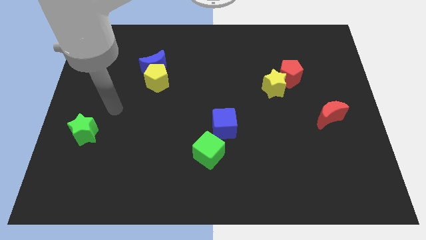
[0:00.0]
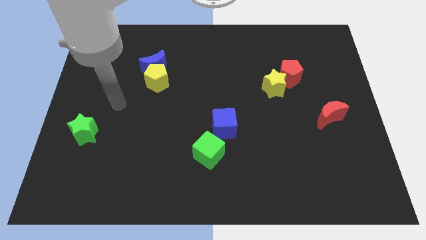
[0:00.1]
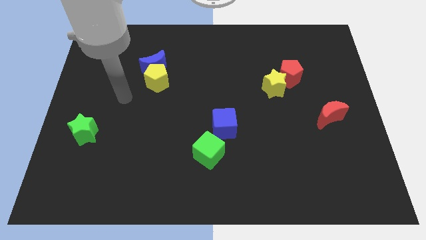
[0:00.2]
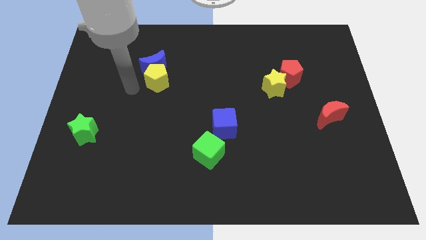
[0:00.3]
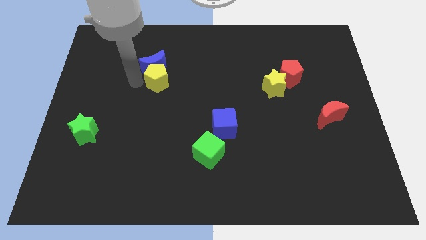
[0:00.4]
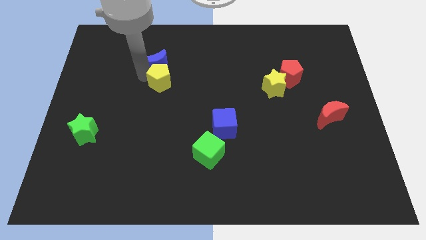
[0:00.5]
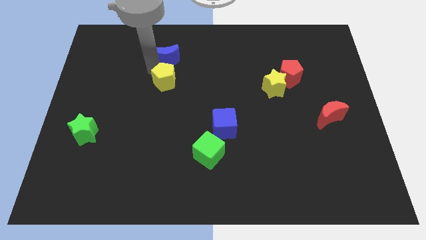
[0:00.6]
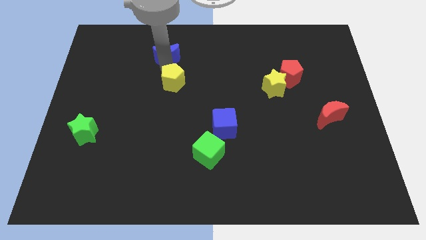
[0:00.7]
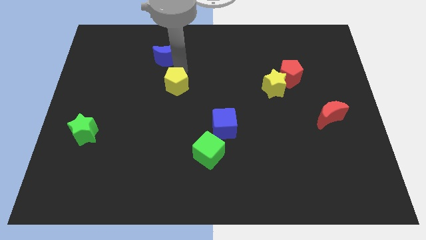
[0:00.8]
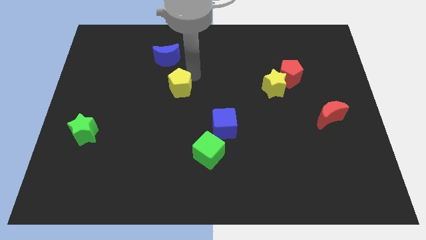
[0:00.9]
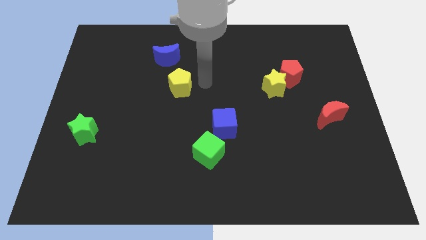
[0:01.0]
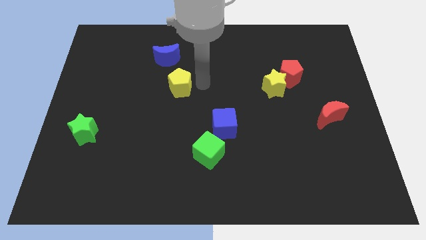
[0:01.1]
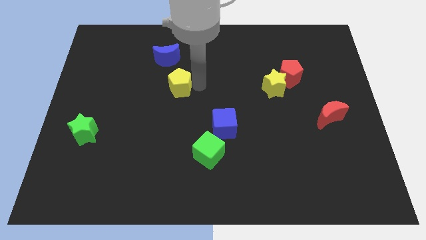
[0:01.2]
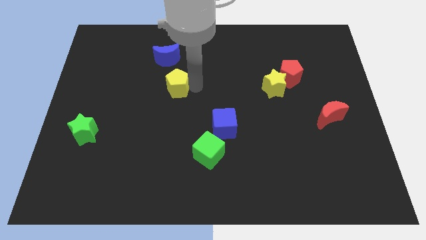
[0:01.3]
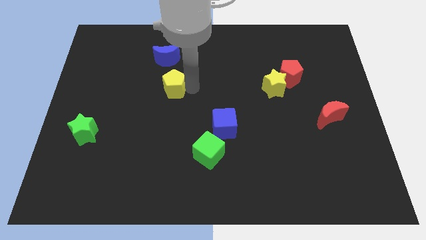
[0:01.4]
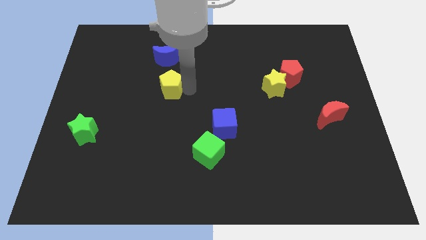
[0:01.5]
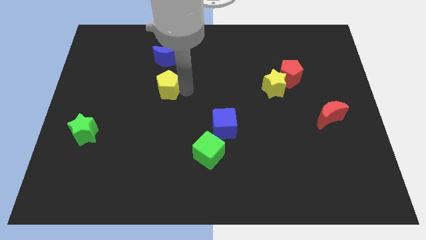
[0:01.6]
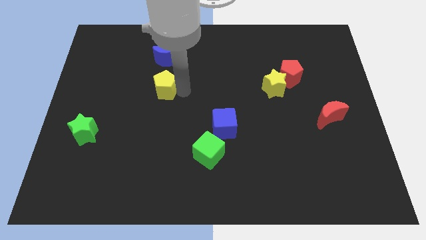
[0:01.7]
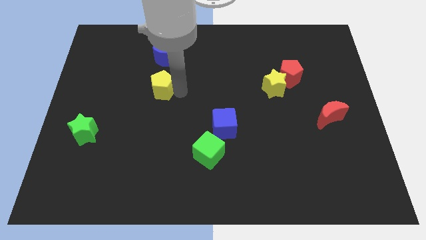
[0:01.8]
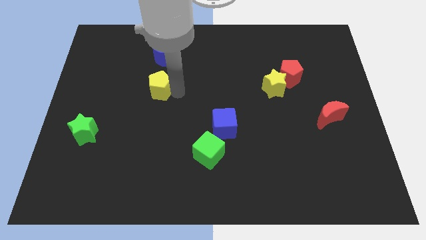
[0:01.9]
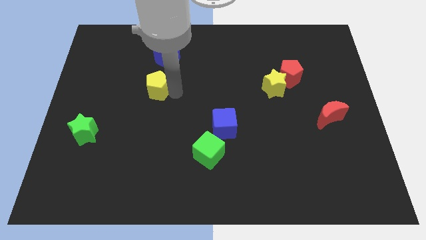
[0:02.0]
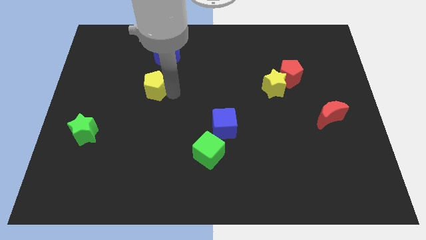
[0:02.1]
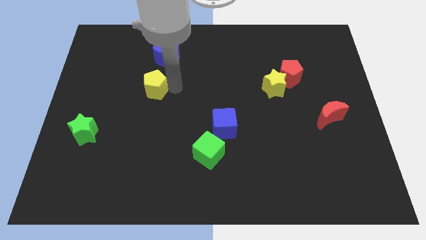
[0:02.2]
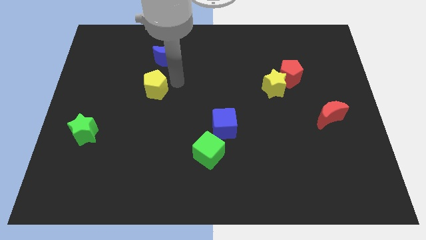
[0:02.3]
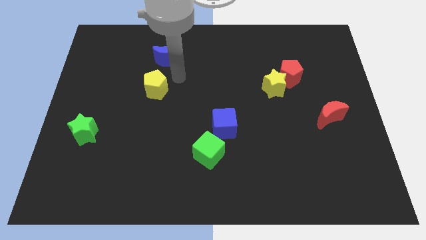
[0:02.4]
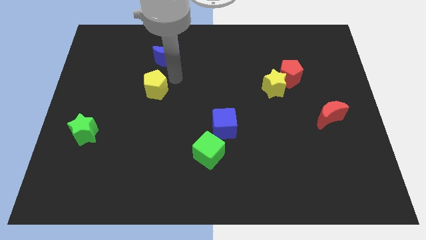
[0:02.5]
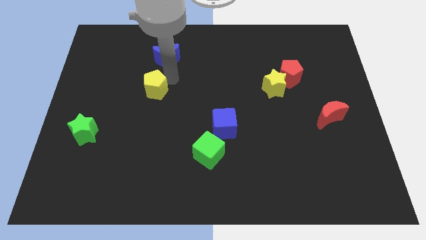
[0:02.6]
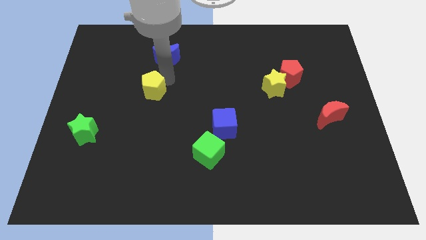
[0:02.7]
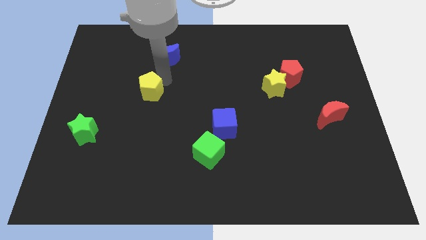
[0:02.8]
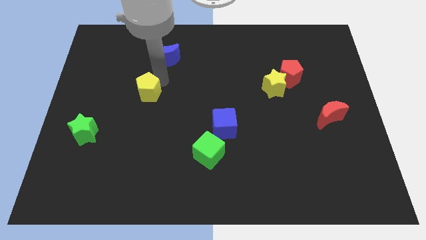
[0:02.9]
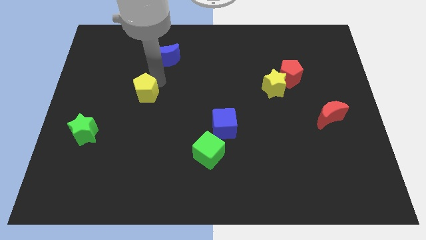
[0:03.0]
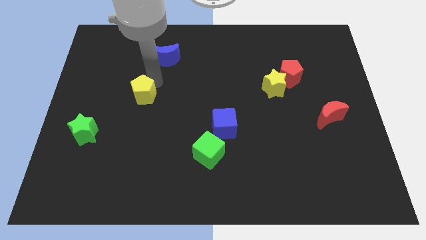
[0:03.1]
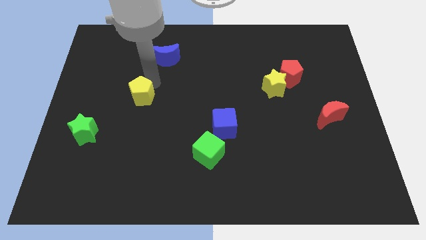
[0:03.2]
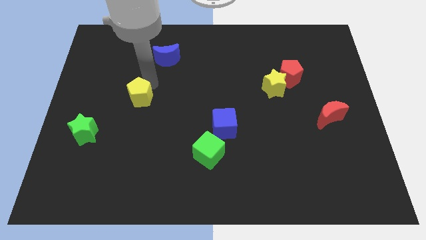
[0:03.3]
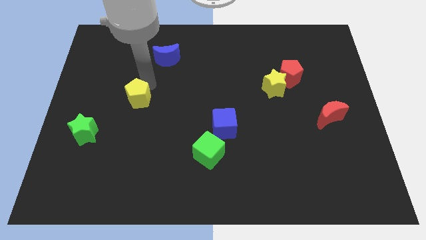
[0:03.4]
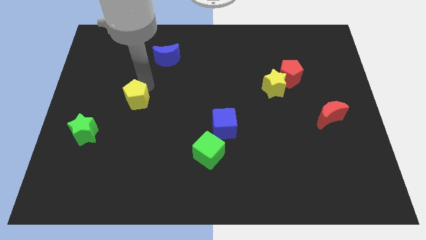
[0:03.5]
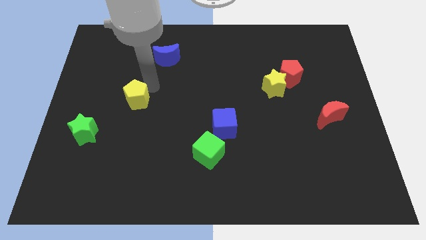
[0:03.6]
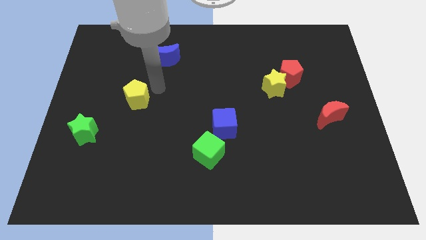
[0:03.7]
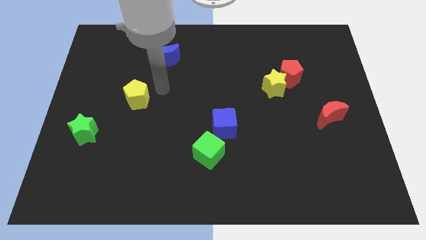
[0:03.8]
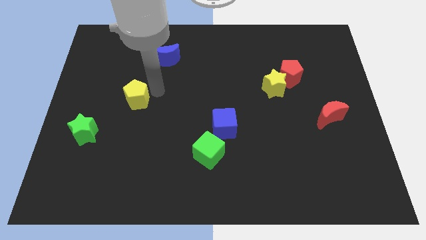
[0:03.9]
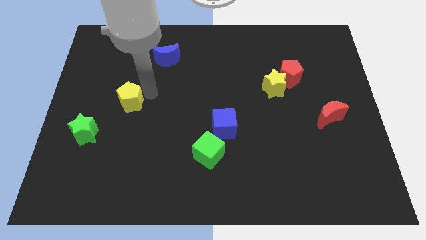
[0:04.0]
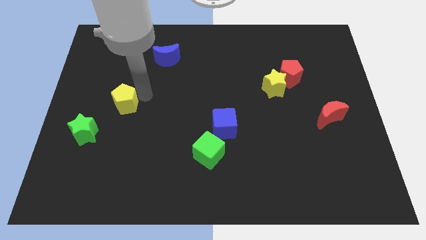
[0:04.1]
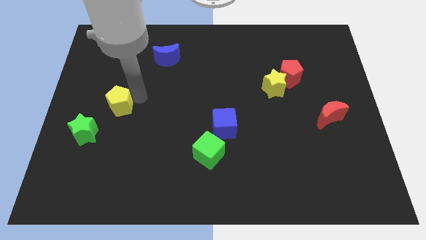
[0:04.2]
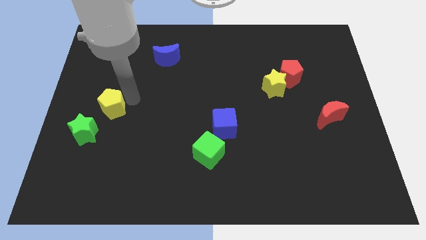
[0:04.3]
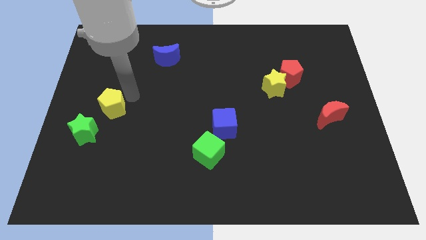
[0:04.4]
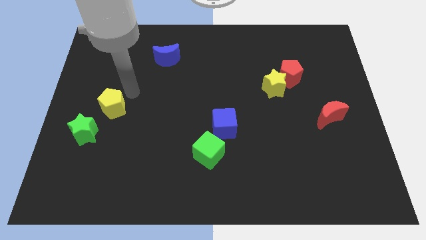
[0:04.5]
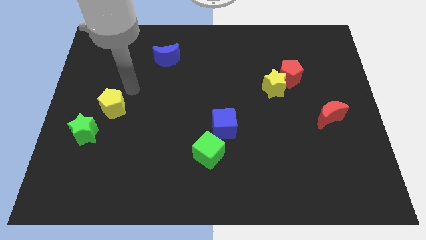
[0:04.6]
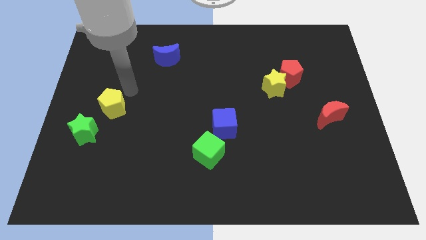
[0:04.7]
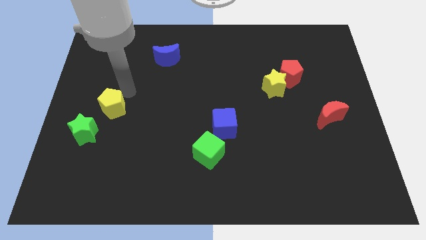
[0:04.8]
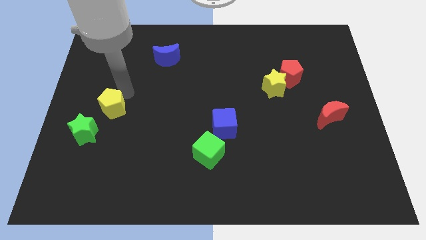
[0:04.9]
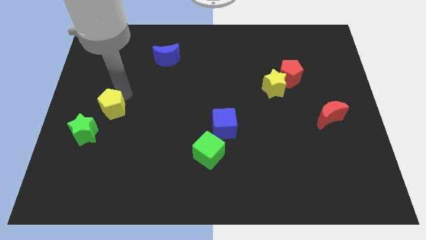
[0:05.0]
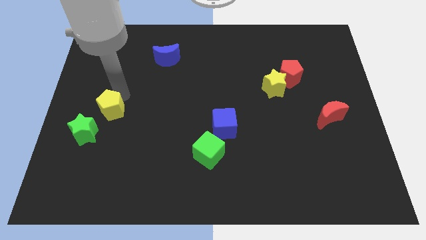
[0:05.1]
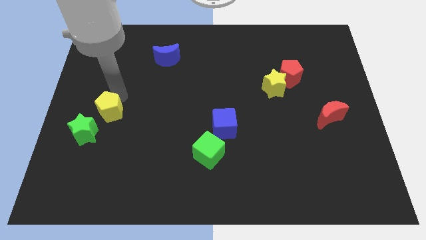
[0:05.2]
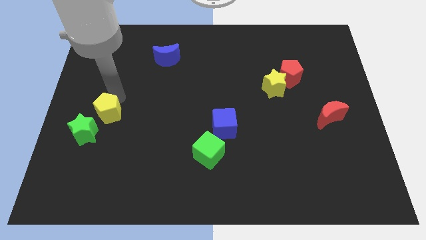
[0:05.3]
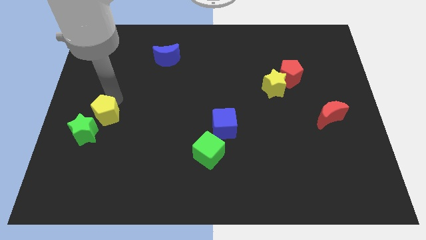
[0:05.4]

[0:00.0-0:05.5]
move the yellow pentagon towards the green star

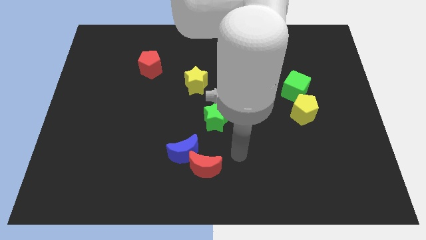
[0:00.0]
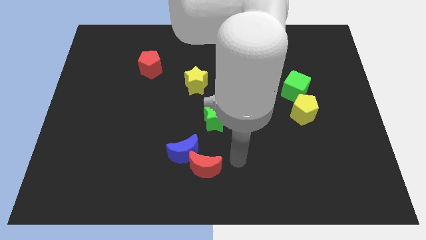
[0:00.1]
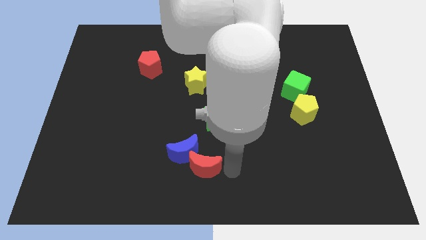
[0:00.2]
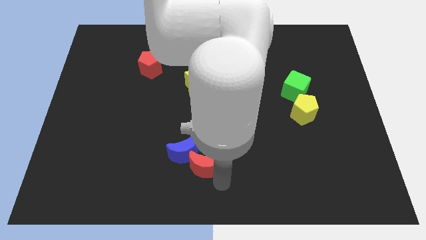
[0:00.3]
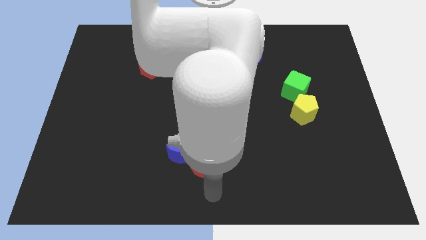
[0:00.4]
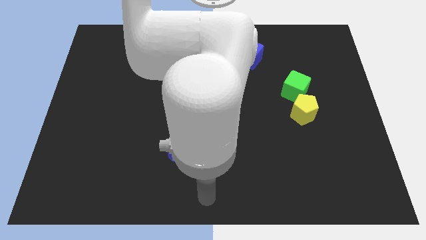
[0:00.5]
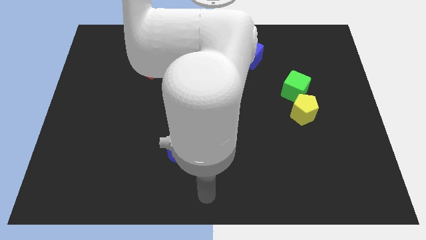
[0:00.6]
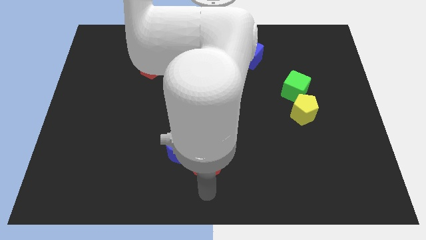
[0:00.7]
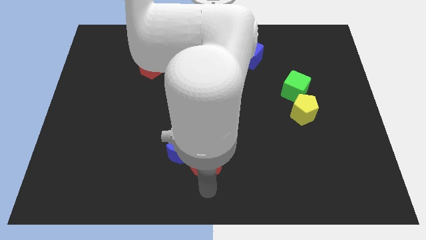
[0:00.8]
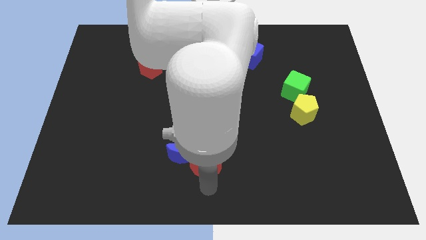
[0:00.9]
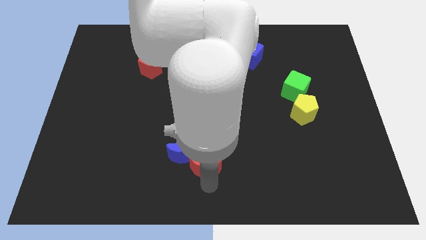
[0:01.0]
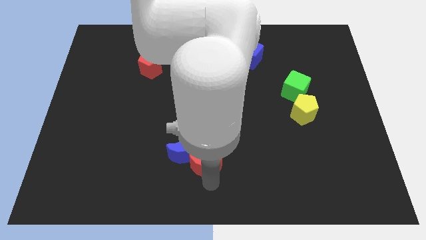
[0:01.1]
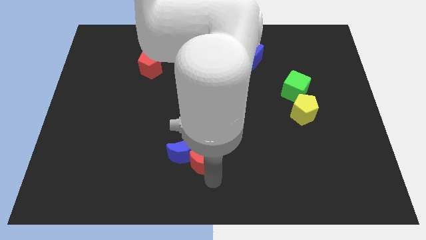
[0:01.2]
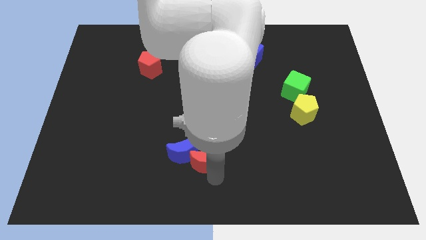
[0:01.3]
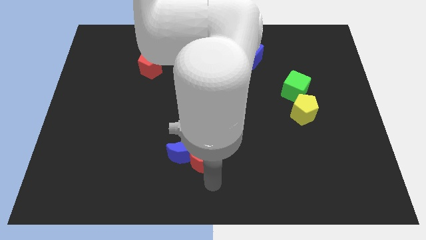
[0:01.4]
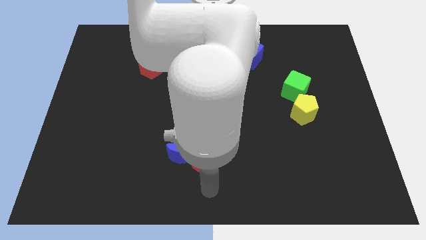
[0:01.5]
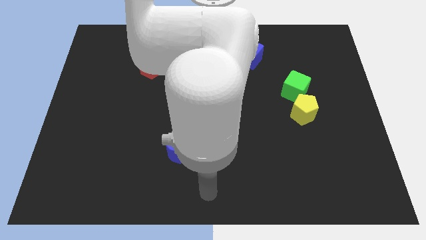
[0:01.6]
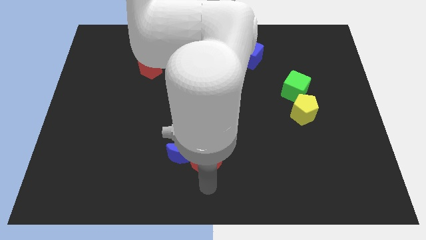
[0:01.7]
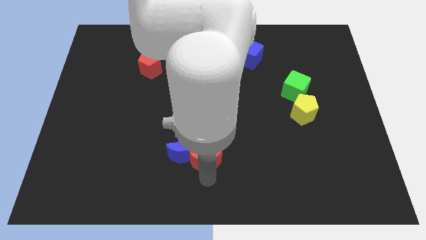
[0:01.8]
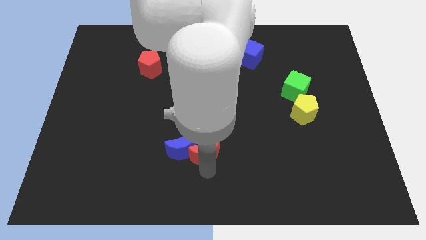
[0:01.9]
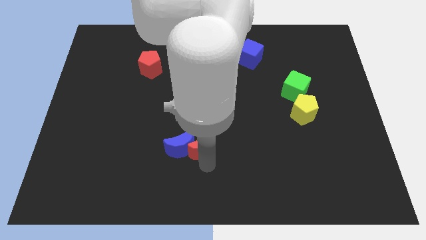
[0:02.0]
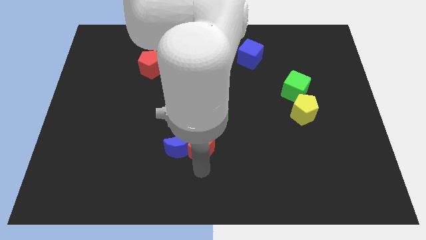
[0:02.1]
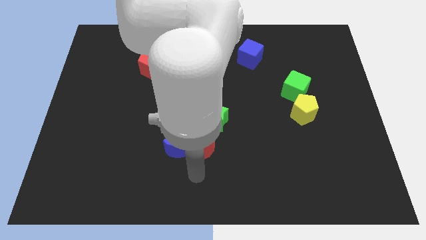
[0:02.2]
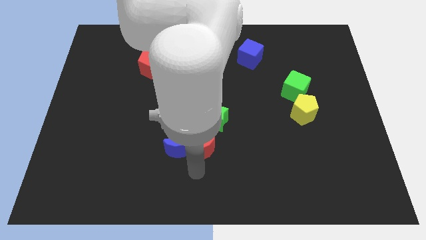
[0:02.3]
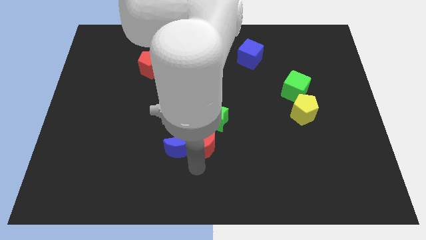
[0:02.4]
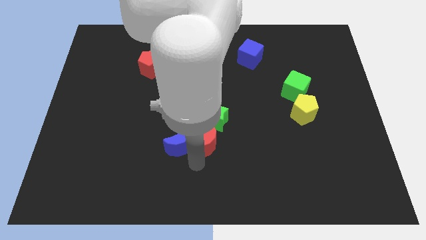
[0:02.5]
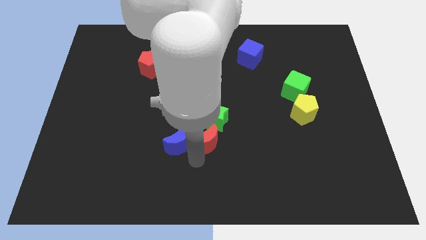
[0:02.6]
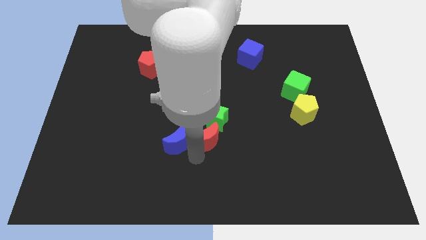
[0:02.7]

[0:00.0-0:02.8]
push the red moon next to the green star
